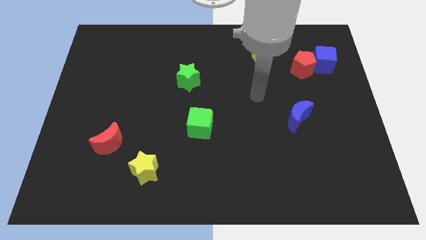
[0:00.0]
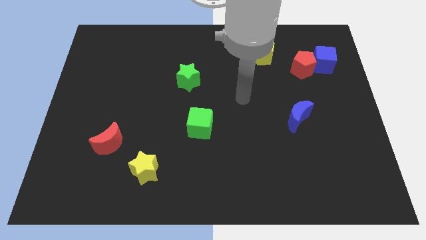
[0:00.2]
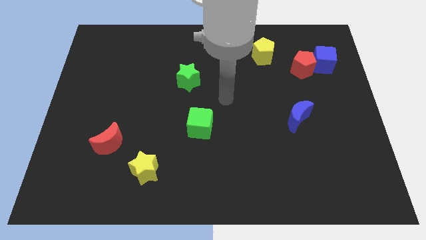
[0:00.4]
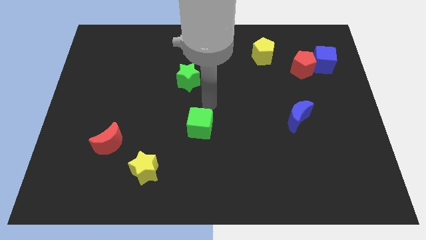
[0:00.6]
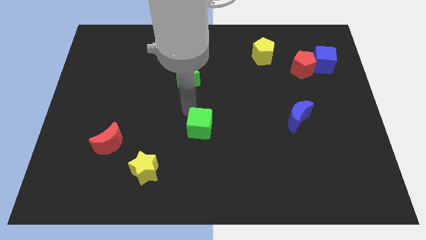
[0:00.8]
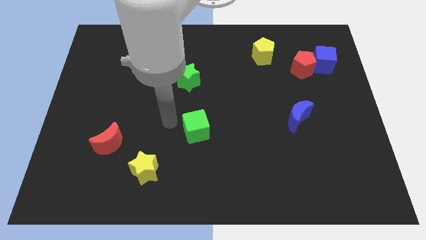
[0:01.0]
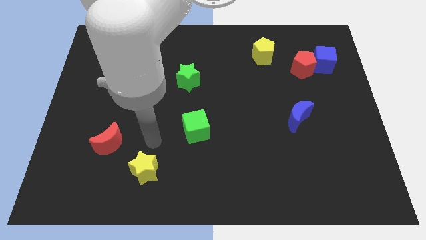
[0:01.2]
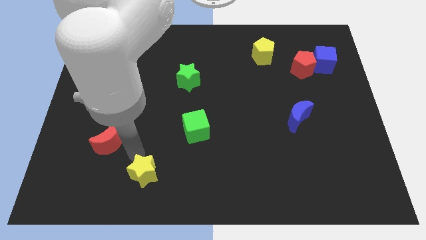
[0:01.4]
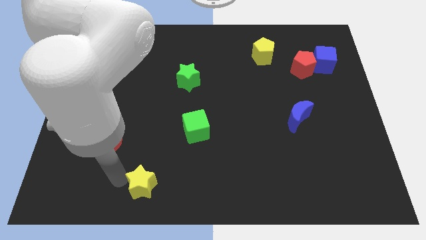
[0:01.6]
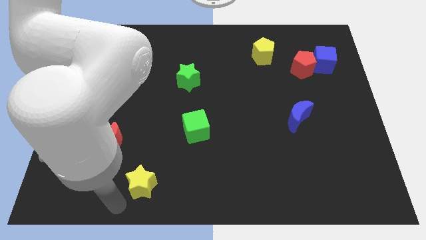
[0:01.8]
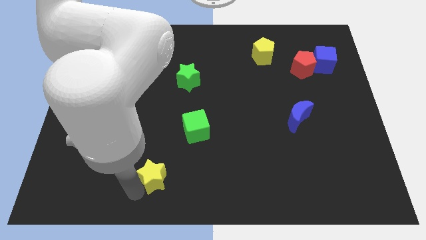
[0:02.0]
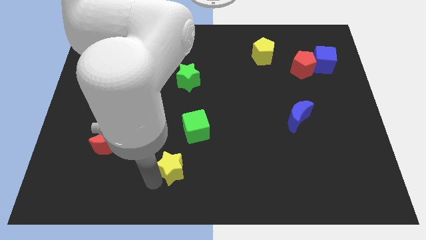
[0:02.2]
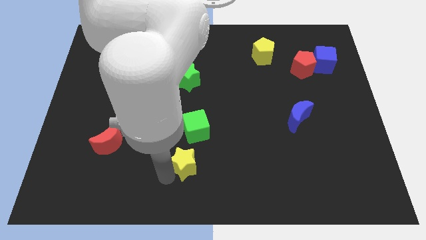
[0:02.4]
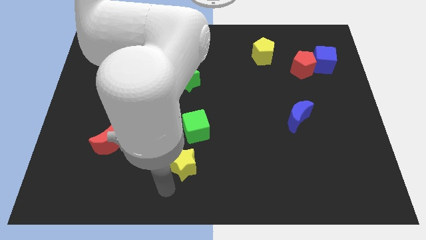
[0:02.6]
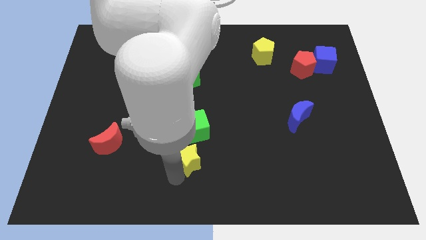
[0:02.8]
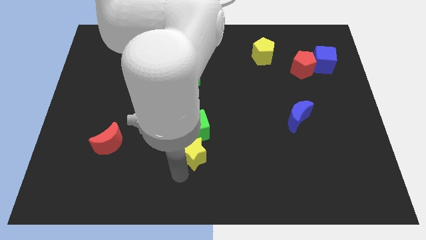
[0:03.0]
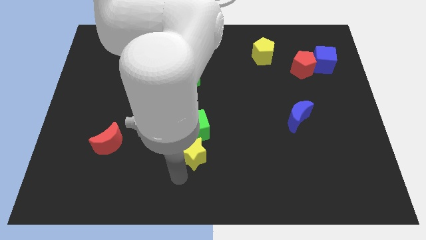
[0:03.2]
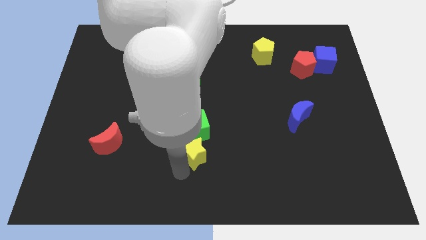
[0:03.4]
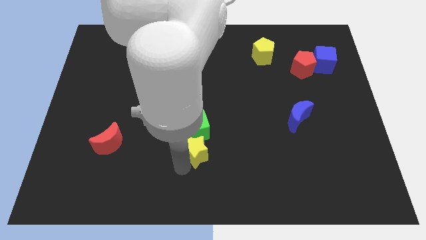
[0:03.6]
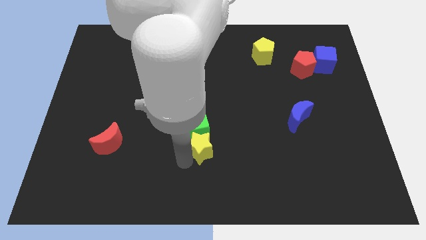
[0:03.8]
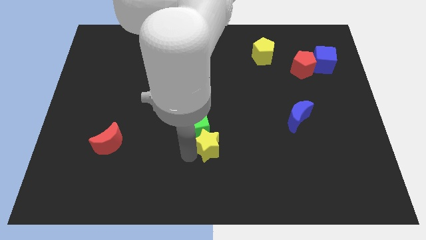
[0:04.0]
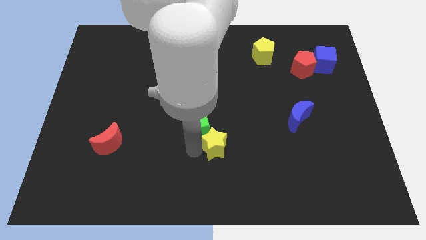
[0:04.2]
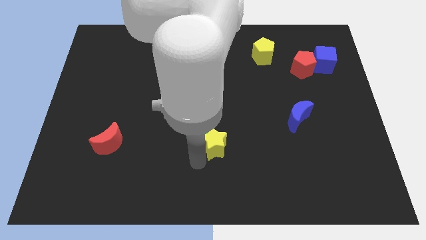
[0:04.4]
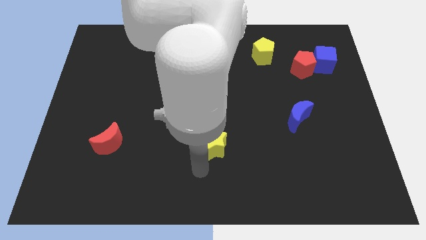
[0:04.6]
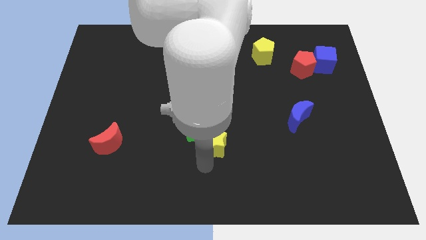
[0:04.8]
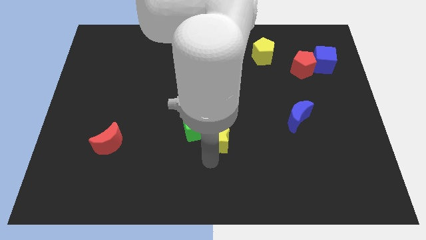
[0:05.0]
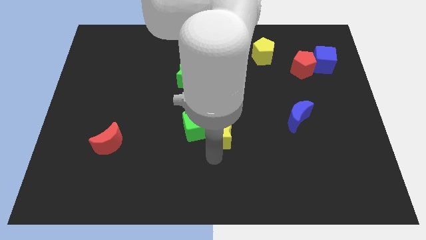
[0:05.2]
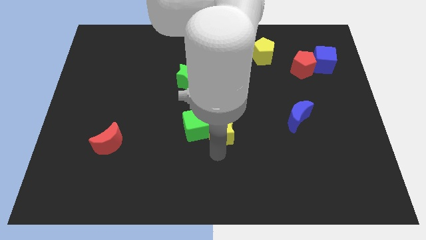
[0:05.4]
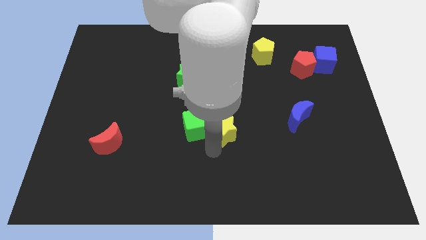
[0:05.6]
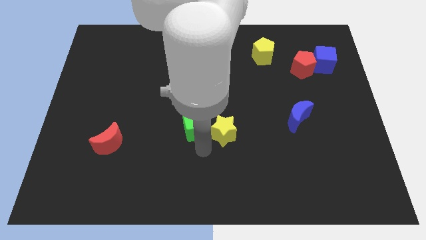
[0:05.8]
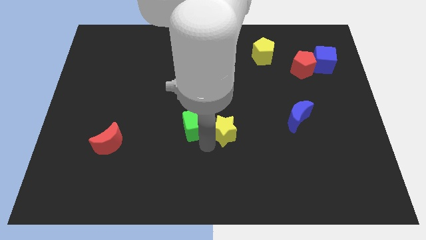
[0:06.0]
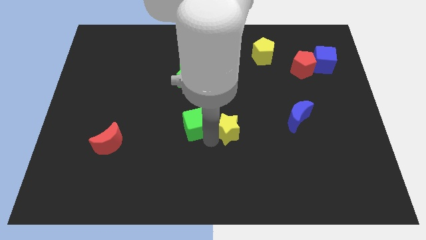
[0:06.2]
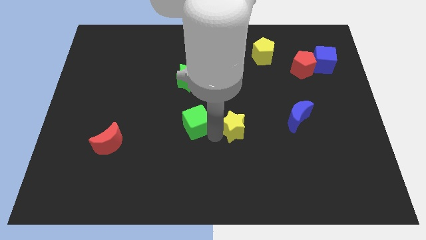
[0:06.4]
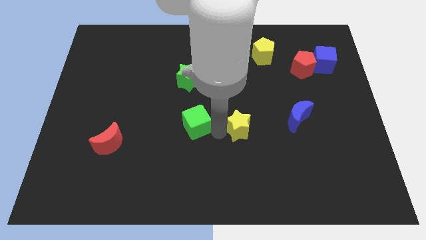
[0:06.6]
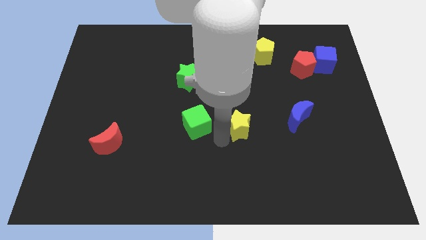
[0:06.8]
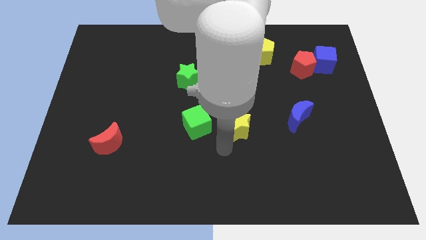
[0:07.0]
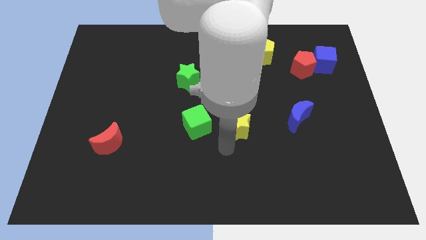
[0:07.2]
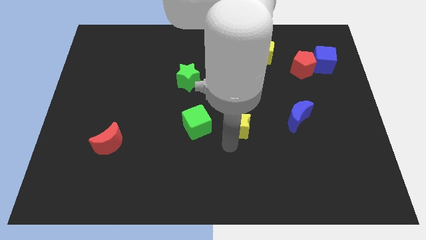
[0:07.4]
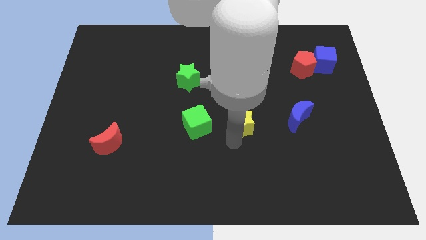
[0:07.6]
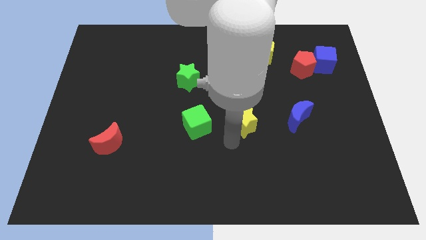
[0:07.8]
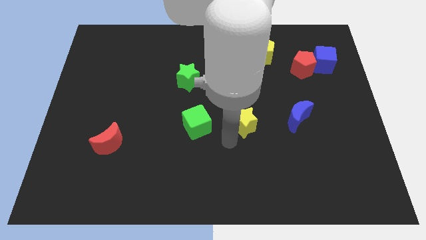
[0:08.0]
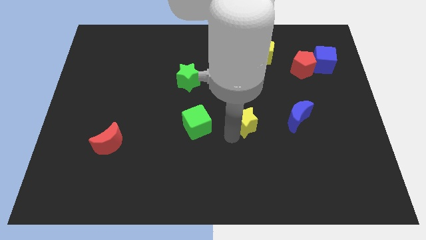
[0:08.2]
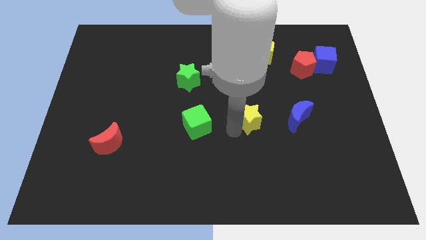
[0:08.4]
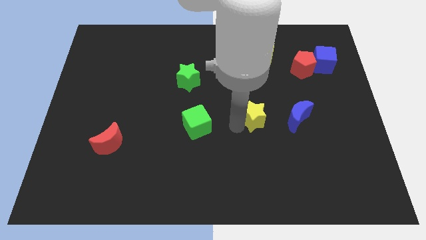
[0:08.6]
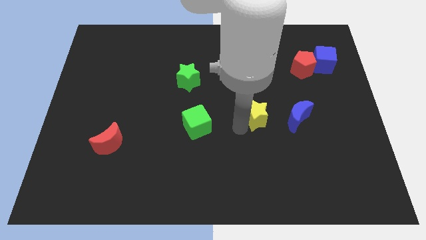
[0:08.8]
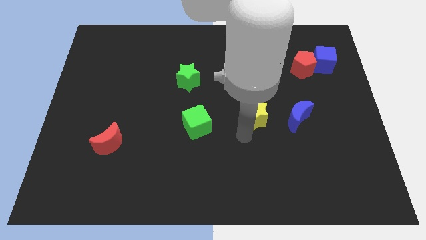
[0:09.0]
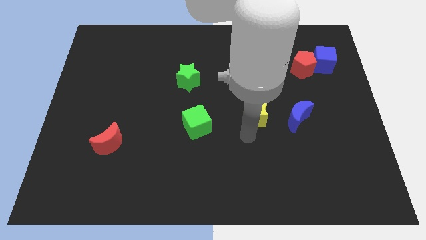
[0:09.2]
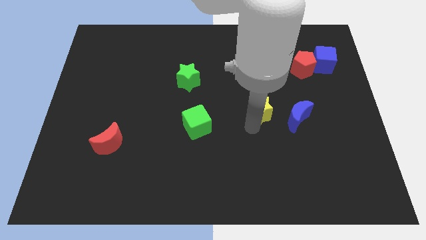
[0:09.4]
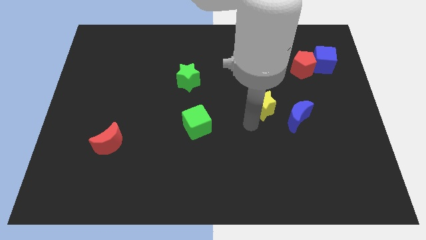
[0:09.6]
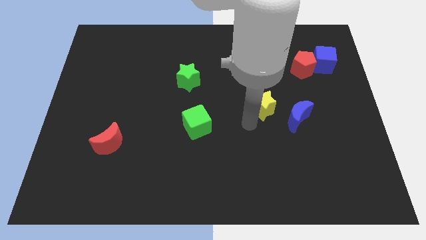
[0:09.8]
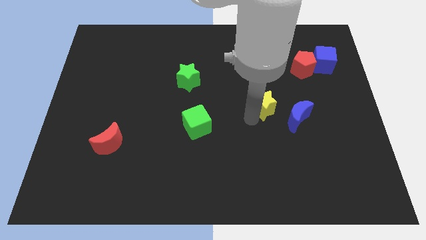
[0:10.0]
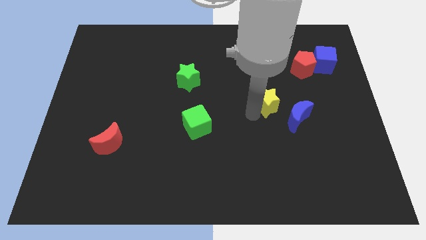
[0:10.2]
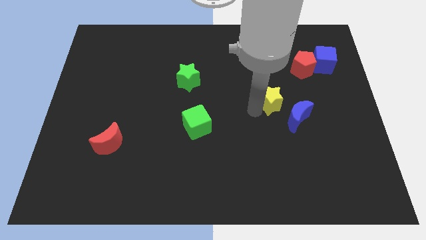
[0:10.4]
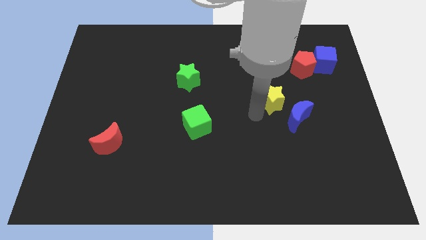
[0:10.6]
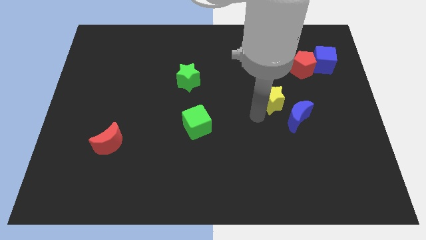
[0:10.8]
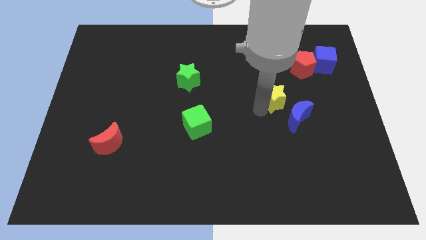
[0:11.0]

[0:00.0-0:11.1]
slide the yellow star to the top of the blue moon

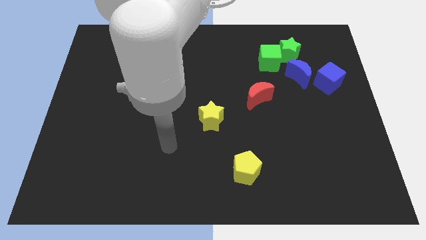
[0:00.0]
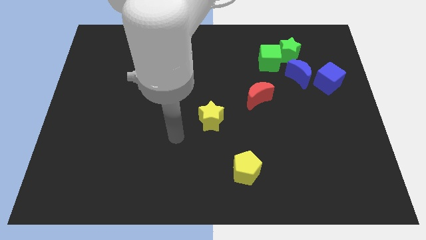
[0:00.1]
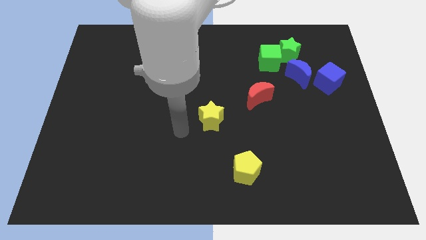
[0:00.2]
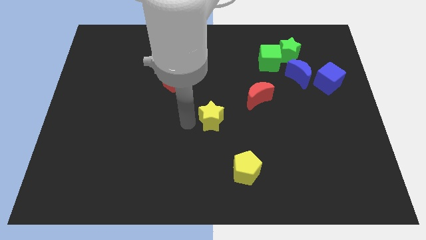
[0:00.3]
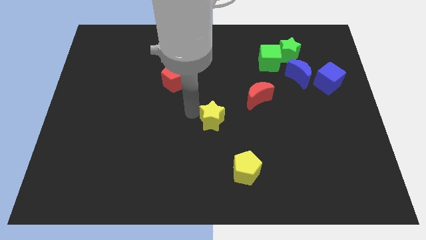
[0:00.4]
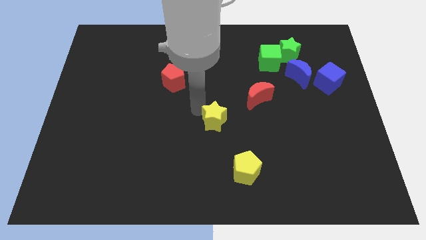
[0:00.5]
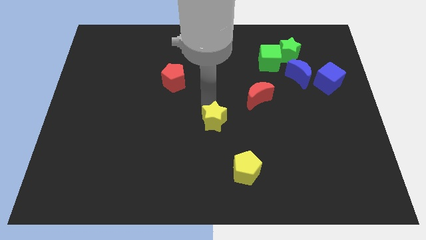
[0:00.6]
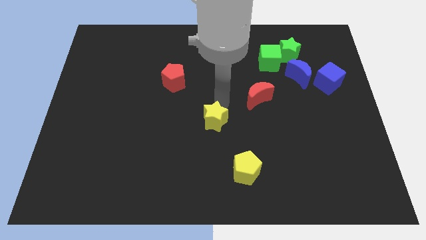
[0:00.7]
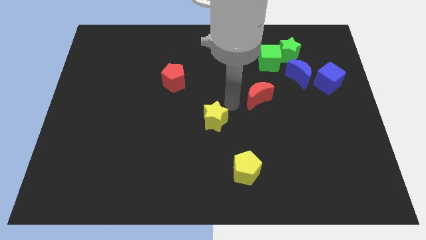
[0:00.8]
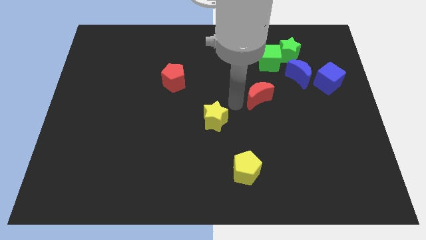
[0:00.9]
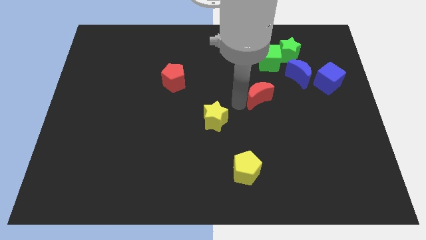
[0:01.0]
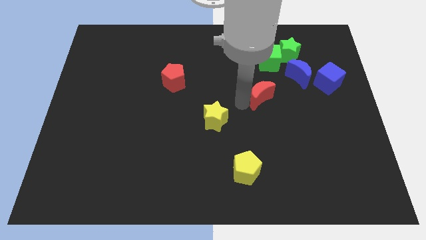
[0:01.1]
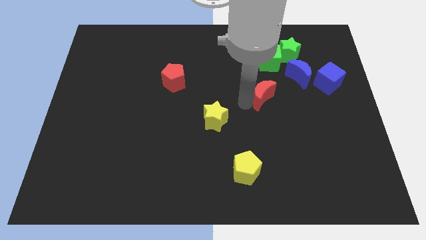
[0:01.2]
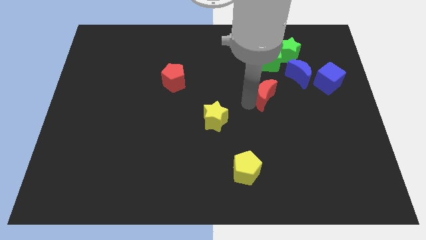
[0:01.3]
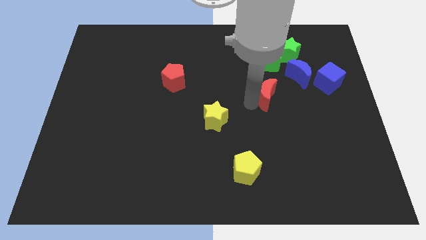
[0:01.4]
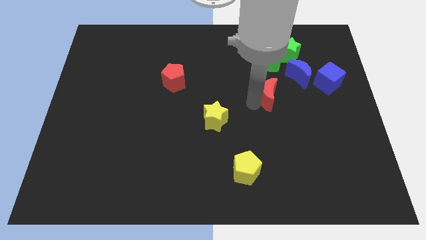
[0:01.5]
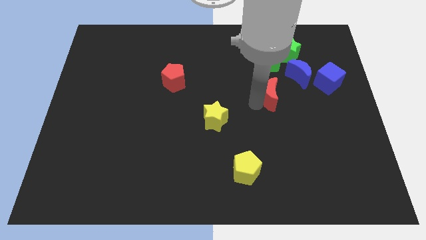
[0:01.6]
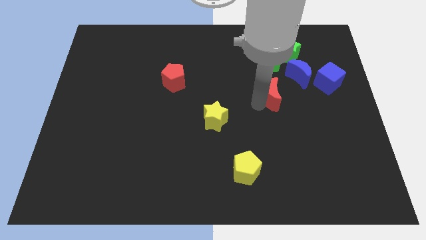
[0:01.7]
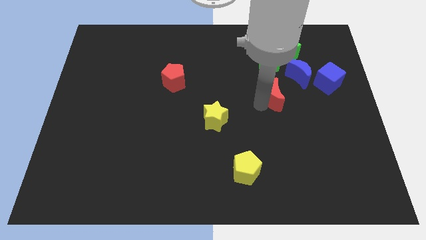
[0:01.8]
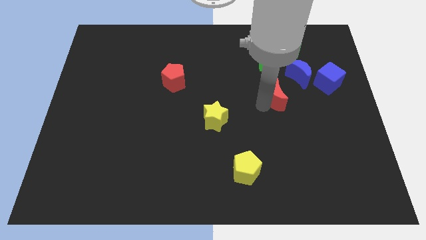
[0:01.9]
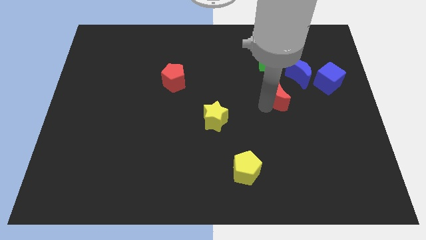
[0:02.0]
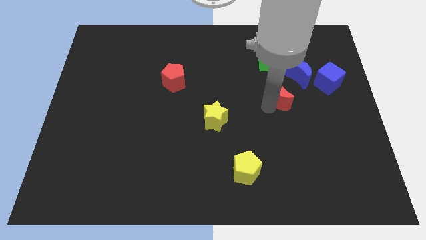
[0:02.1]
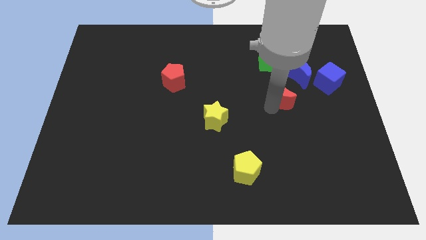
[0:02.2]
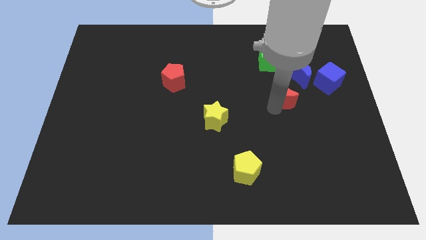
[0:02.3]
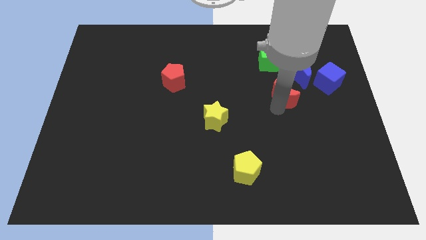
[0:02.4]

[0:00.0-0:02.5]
push the red moon below the green star

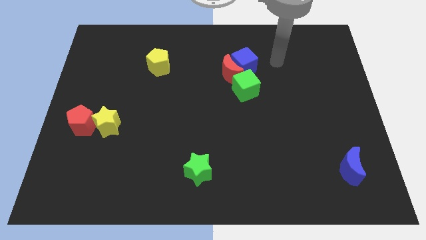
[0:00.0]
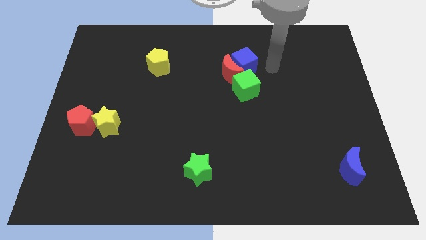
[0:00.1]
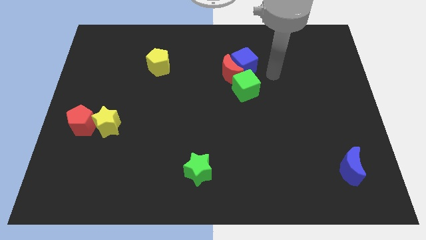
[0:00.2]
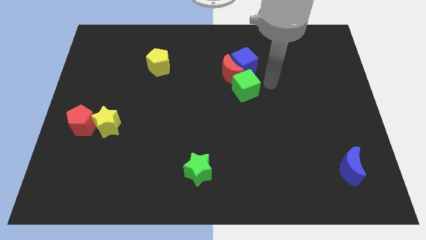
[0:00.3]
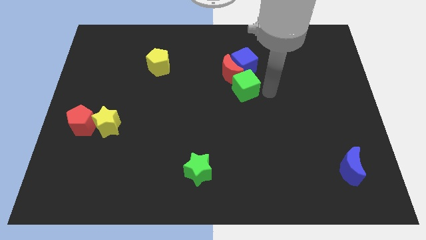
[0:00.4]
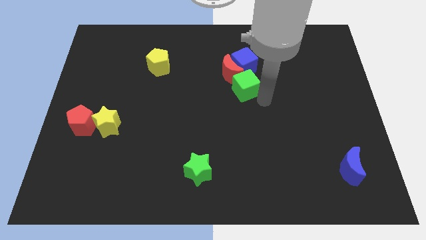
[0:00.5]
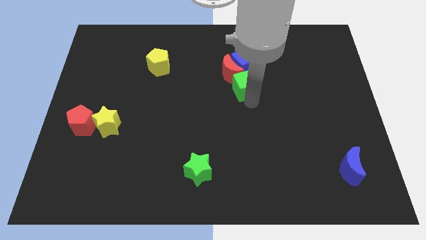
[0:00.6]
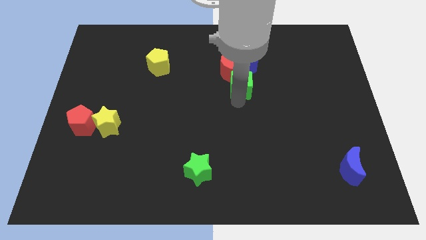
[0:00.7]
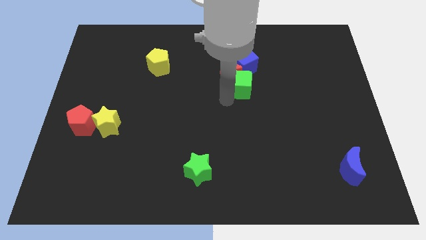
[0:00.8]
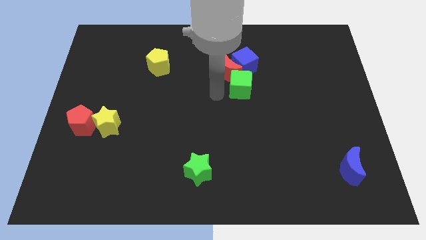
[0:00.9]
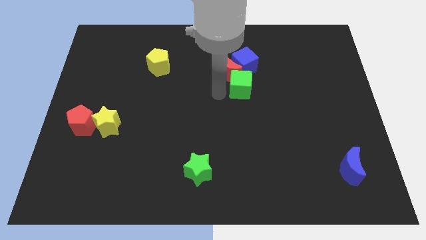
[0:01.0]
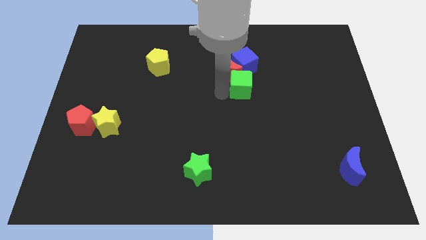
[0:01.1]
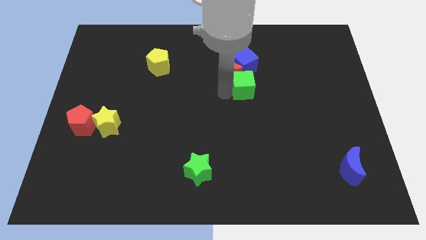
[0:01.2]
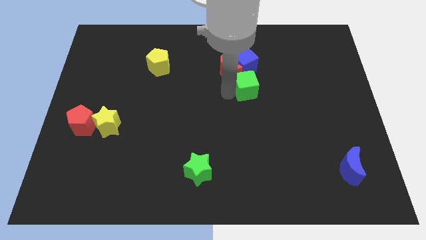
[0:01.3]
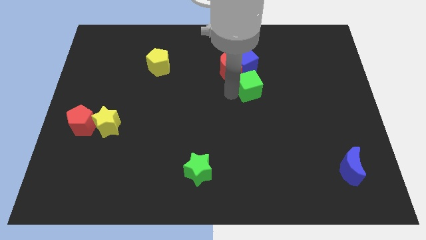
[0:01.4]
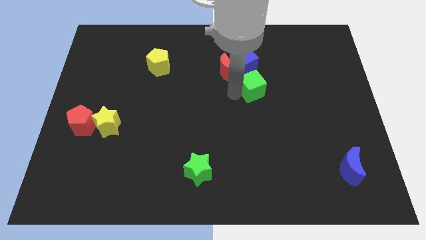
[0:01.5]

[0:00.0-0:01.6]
put the green cube to the bottom right side of the blue cube
